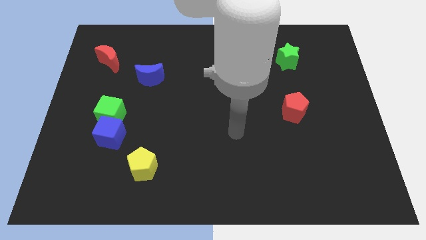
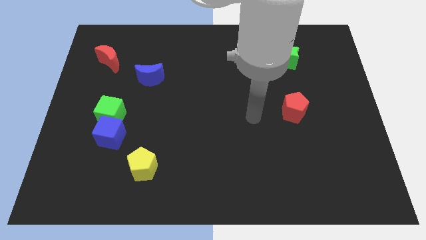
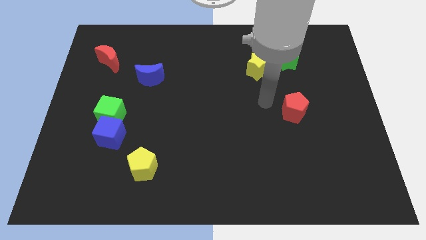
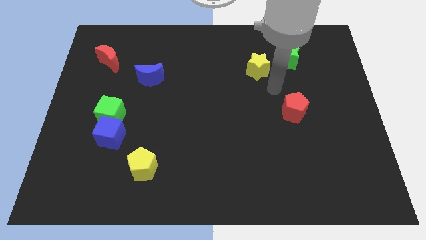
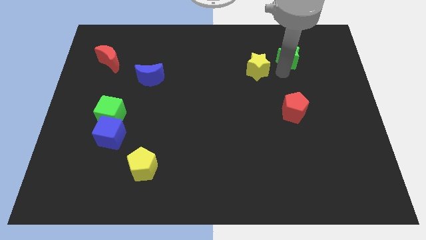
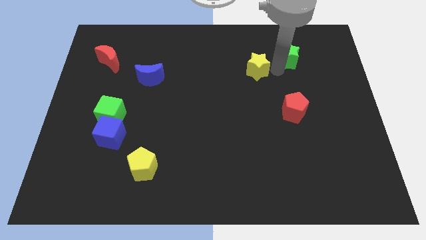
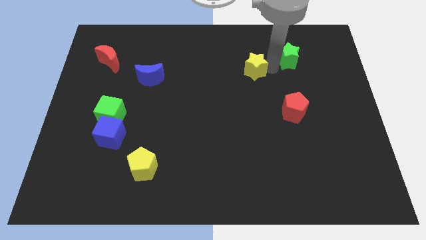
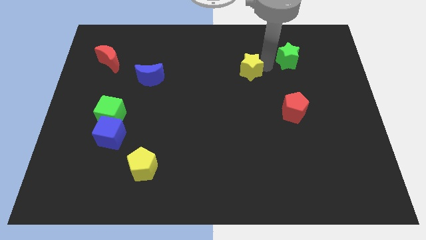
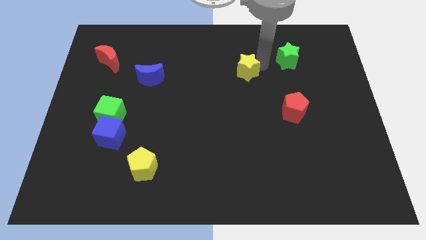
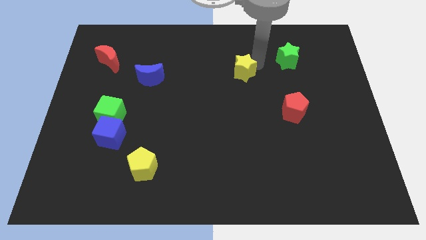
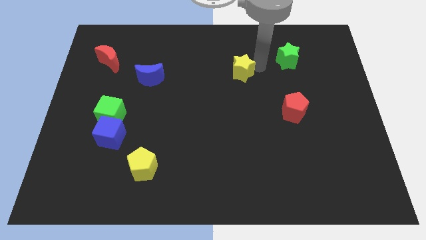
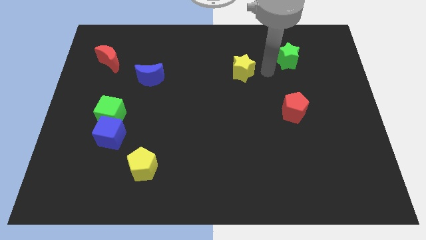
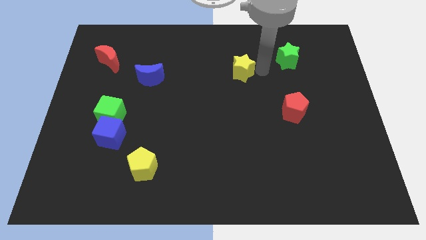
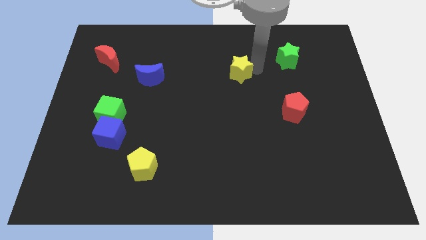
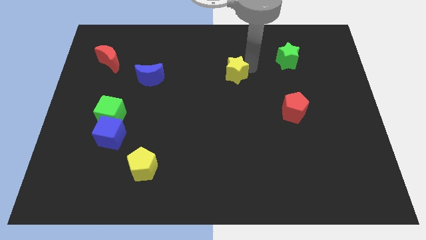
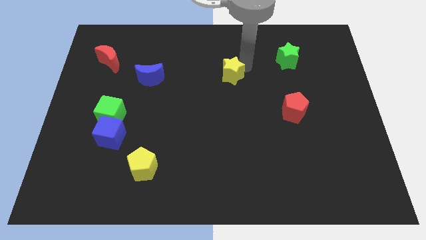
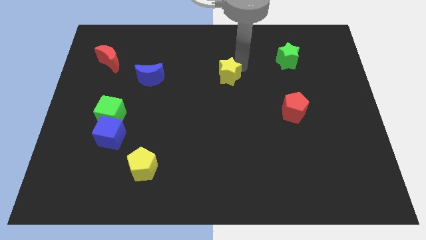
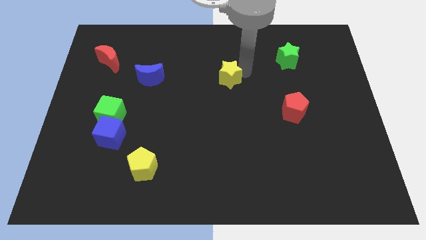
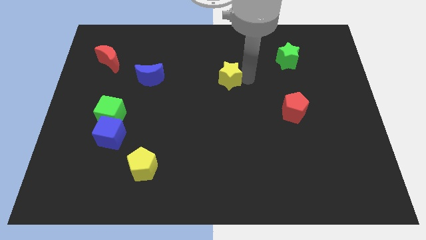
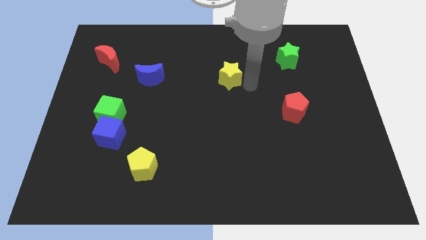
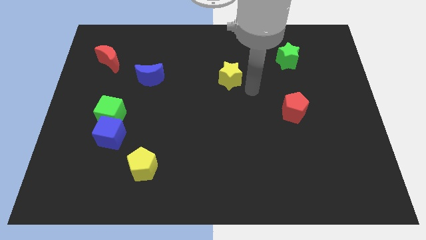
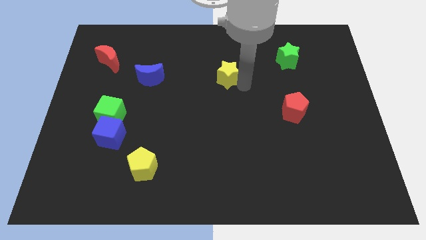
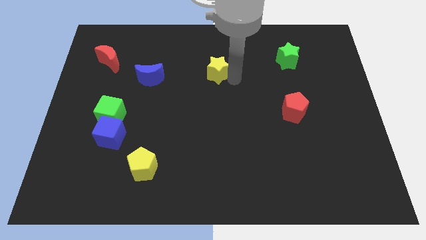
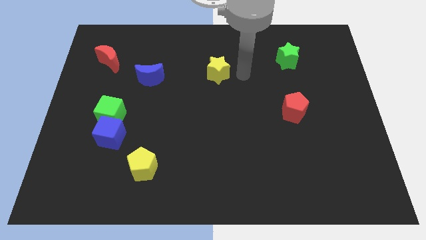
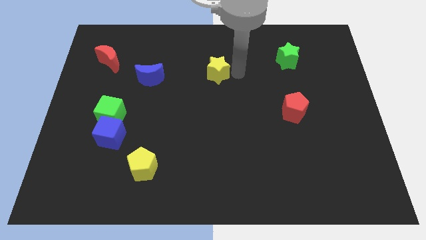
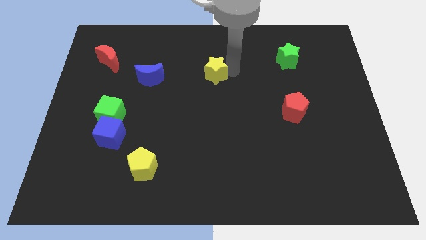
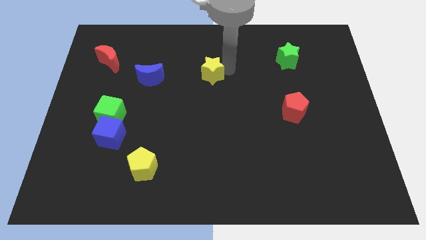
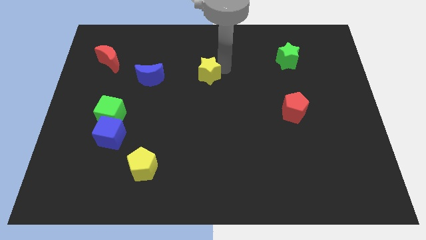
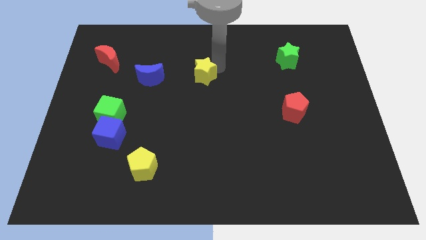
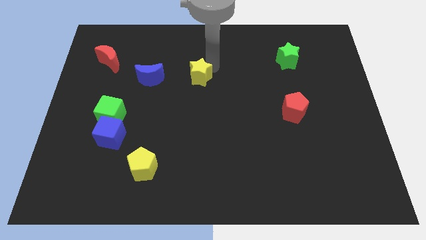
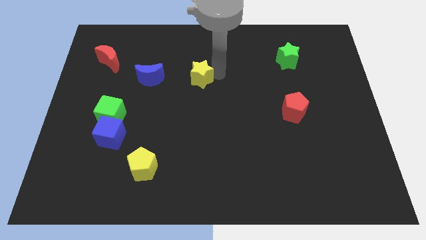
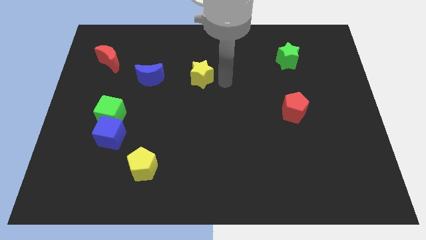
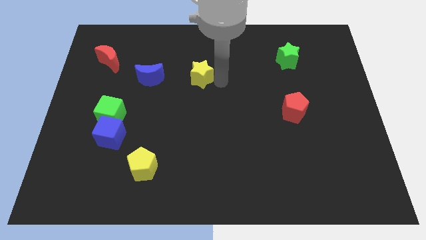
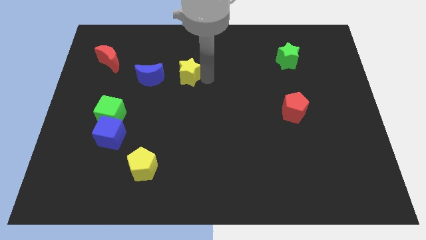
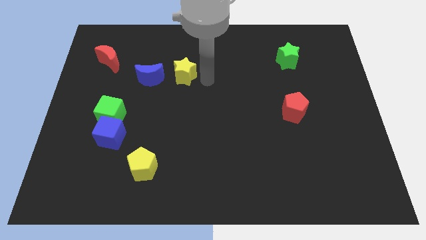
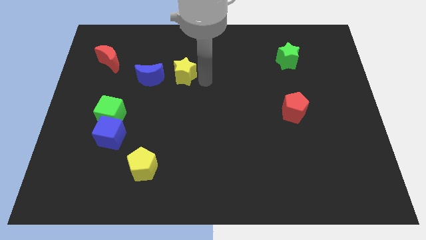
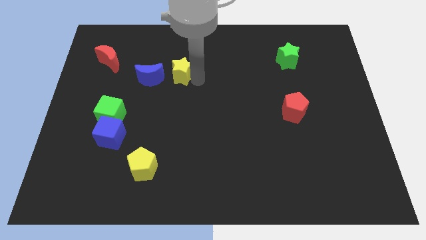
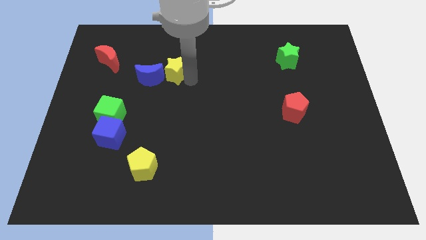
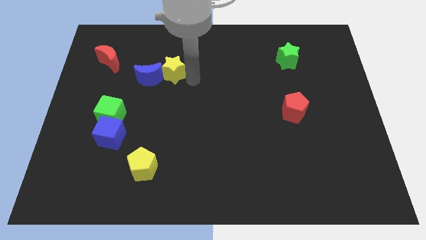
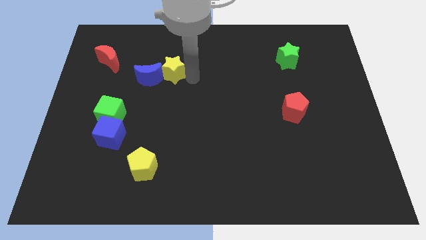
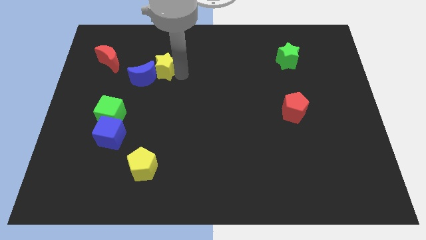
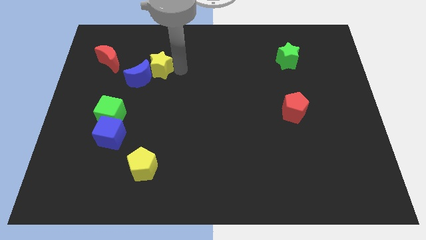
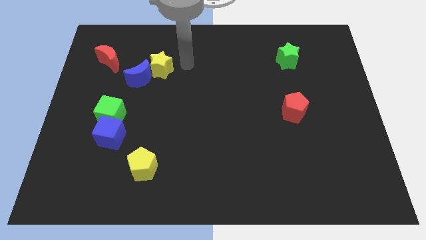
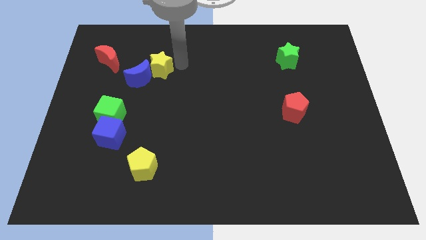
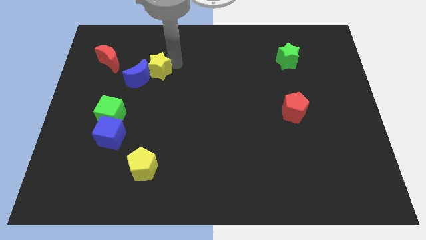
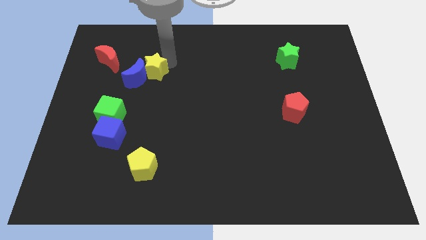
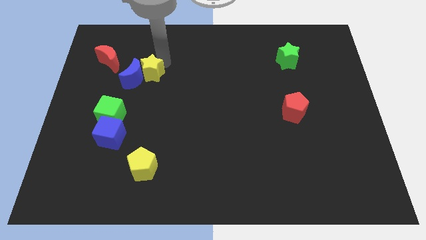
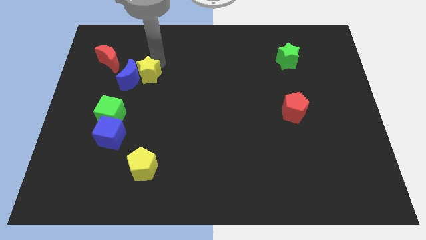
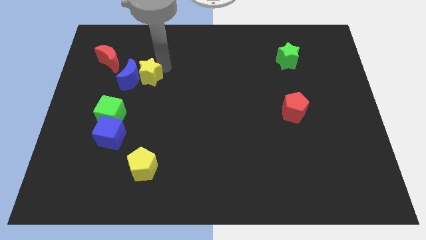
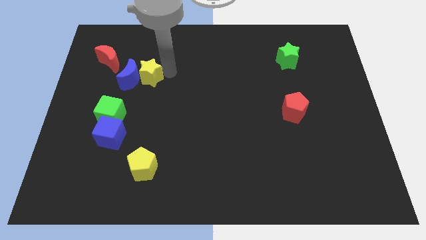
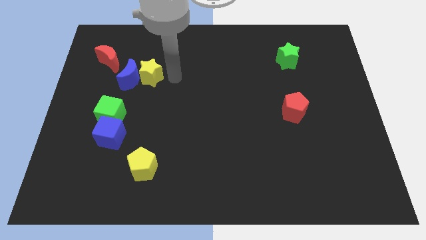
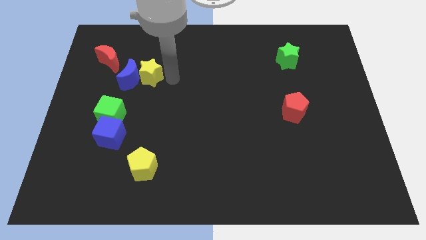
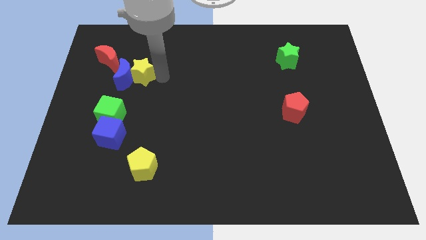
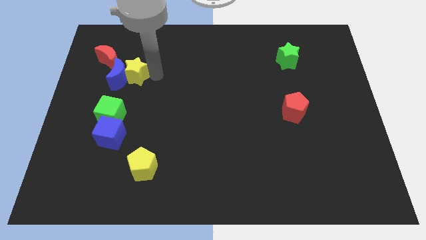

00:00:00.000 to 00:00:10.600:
move the yellow star to the top side of the green cube
